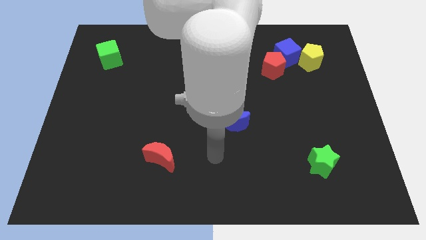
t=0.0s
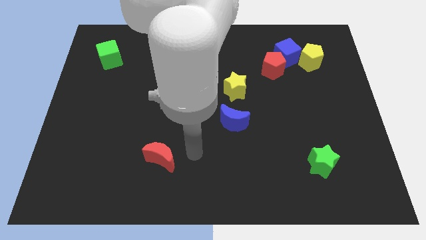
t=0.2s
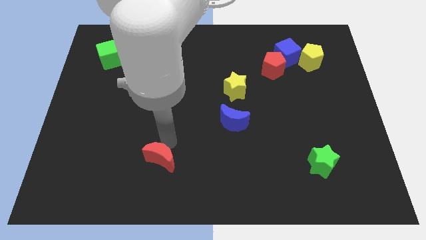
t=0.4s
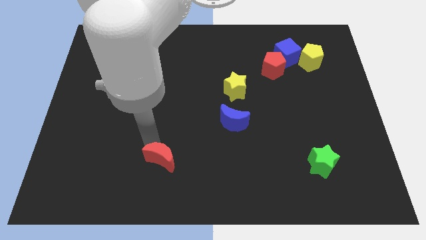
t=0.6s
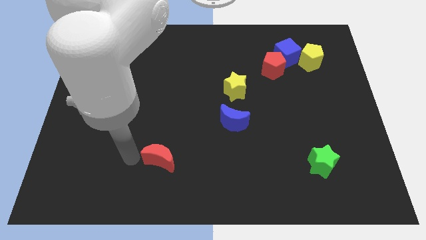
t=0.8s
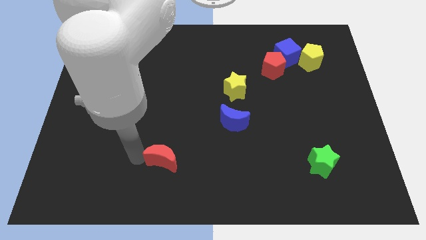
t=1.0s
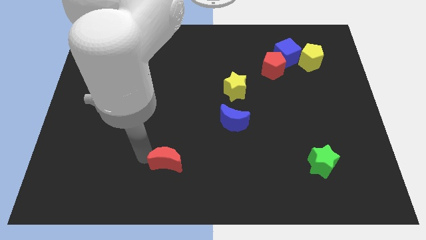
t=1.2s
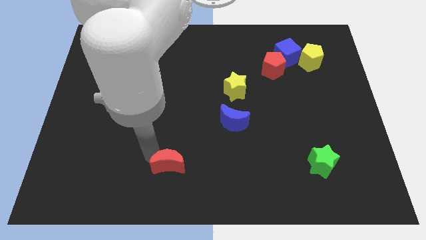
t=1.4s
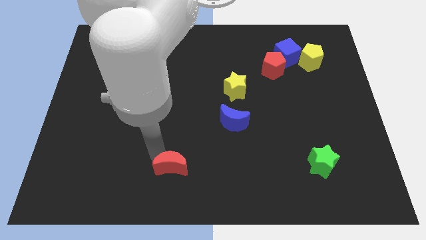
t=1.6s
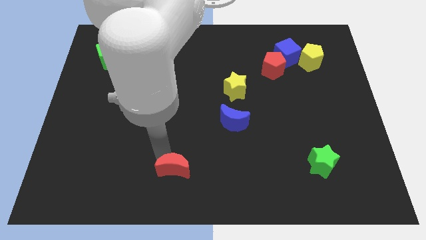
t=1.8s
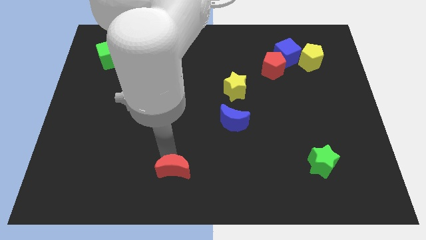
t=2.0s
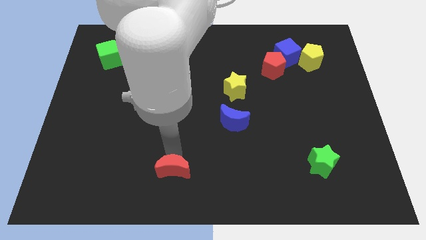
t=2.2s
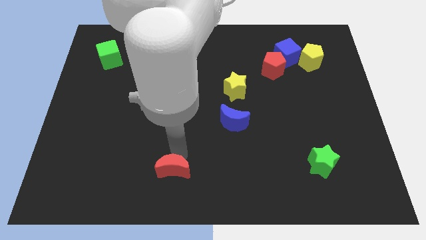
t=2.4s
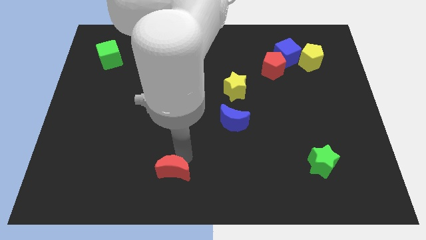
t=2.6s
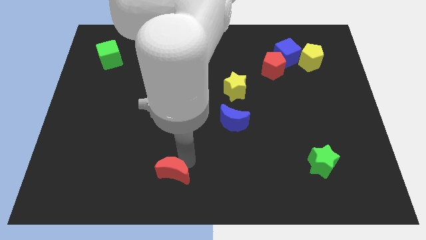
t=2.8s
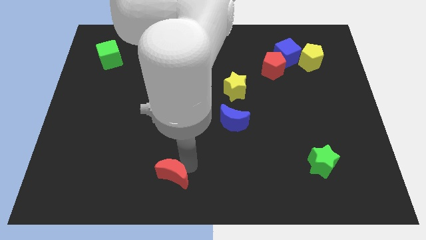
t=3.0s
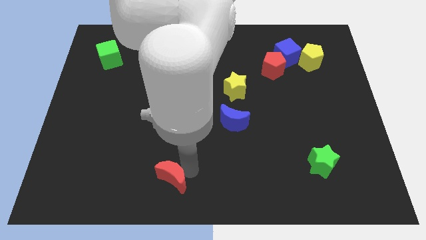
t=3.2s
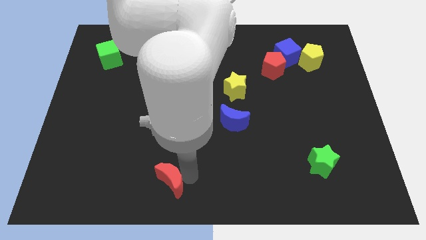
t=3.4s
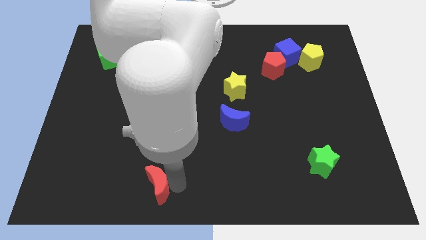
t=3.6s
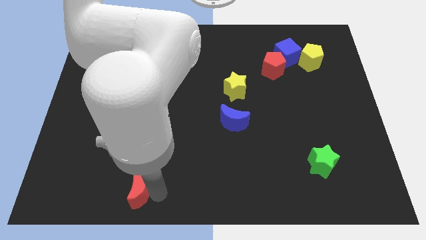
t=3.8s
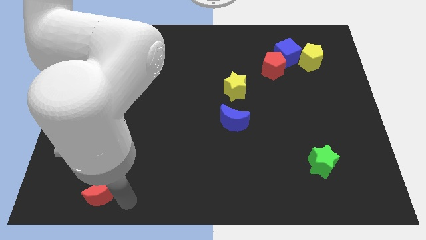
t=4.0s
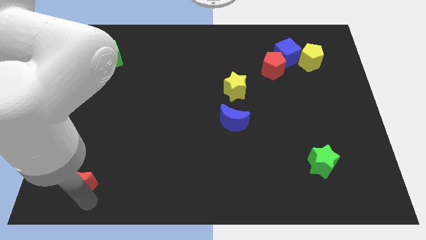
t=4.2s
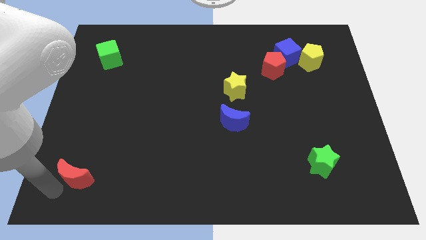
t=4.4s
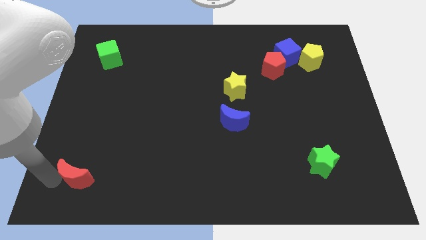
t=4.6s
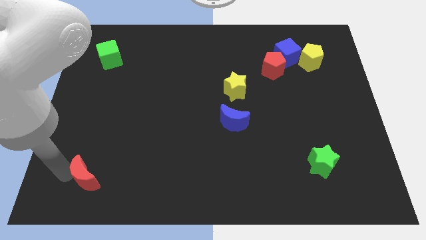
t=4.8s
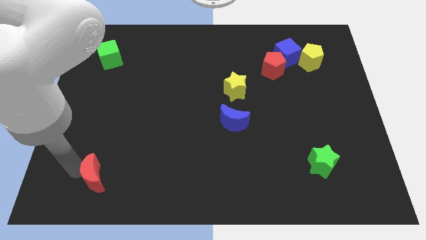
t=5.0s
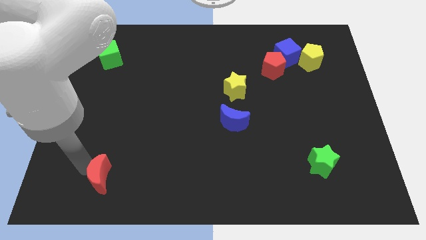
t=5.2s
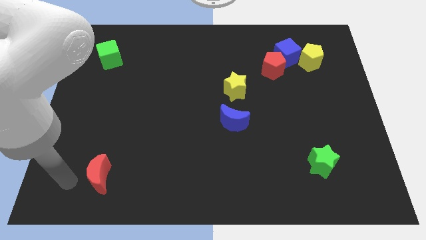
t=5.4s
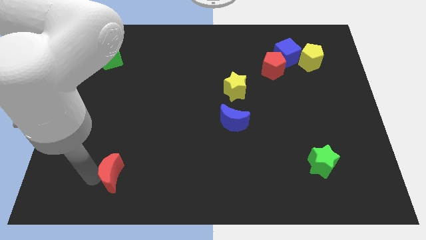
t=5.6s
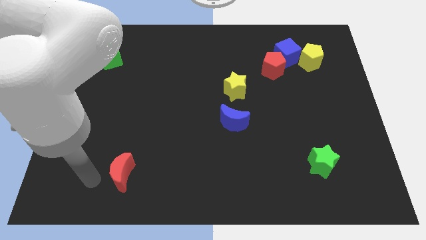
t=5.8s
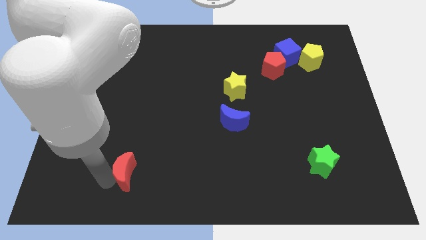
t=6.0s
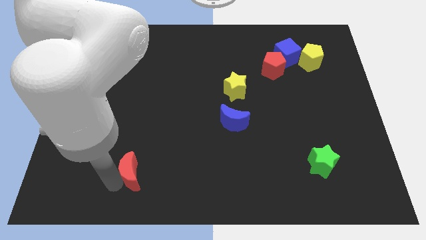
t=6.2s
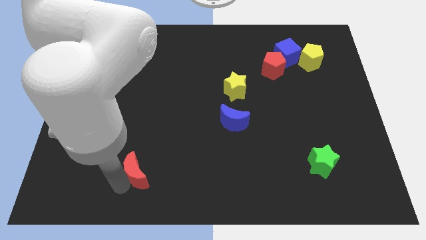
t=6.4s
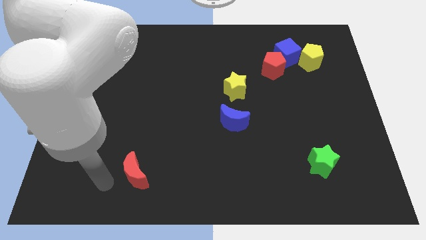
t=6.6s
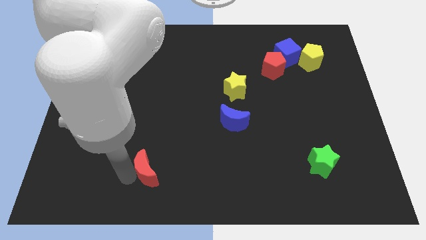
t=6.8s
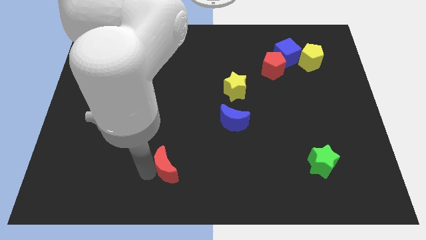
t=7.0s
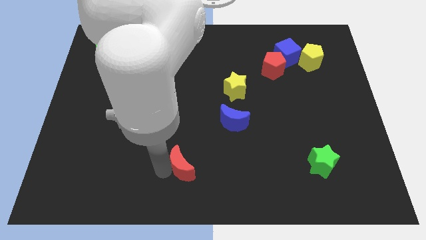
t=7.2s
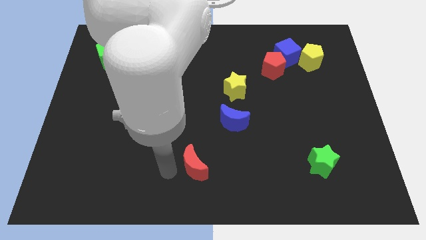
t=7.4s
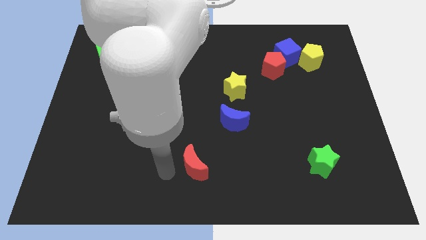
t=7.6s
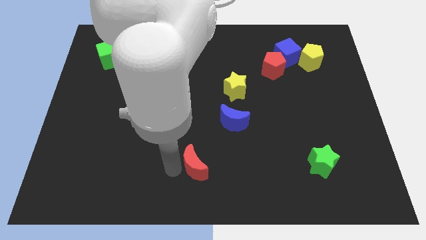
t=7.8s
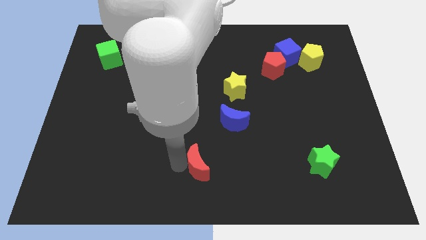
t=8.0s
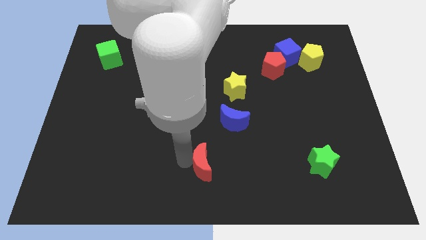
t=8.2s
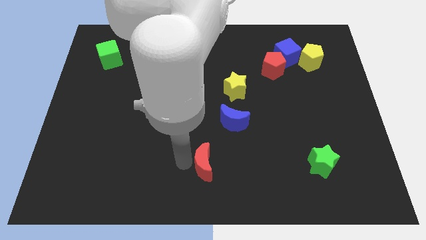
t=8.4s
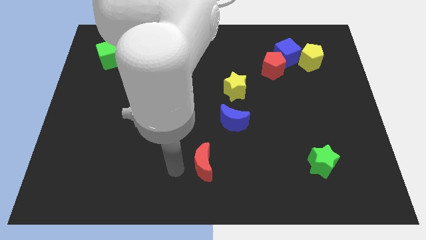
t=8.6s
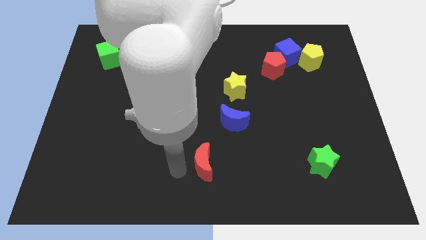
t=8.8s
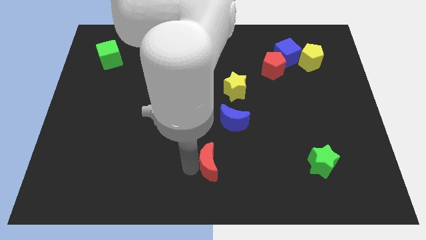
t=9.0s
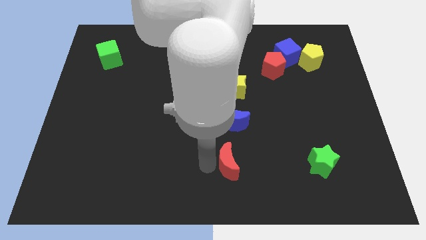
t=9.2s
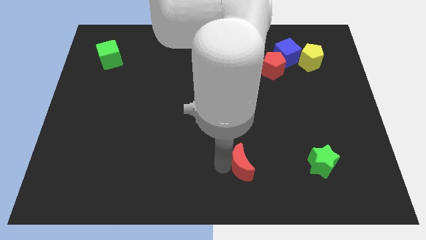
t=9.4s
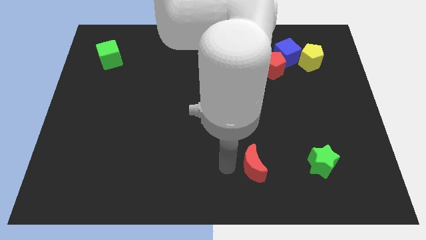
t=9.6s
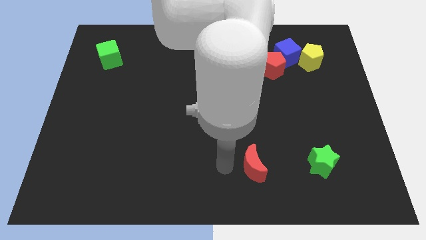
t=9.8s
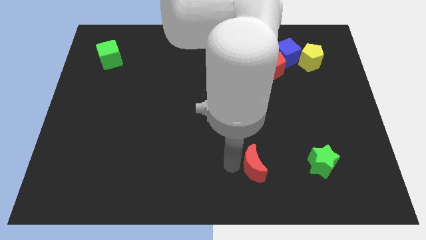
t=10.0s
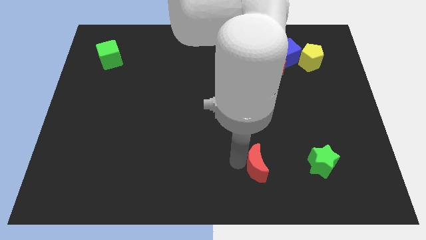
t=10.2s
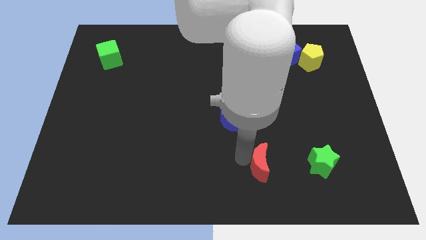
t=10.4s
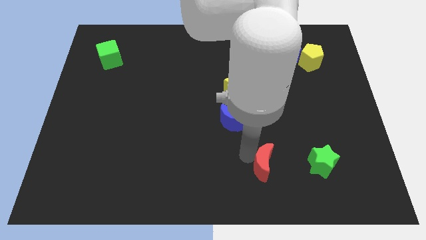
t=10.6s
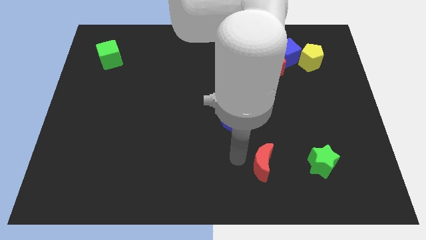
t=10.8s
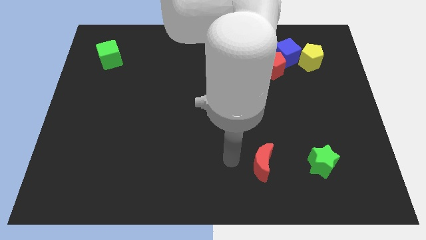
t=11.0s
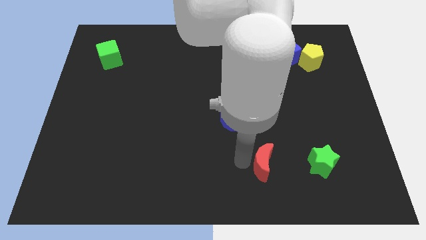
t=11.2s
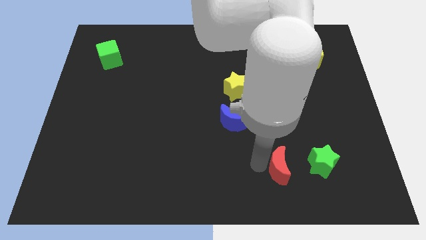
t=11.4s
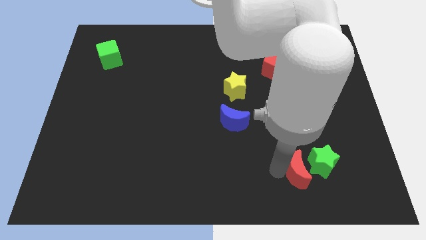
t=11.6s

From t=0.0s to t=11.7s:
slide the red moon towards the green star
